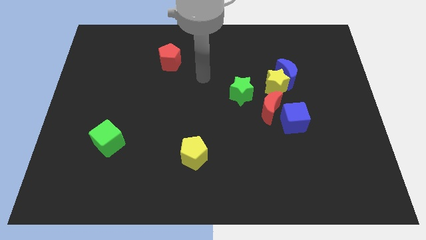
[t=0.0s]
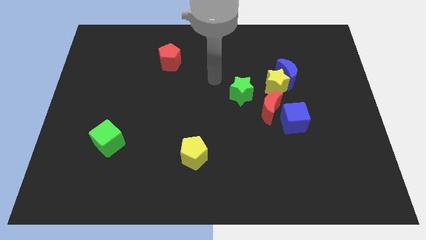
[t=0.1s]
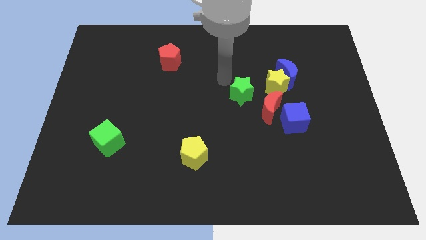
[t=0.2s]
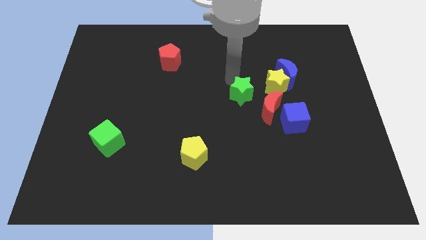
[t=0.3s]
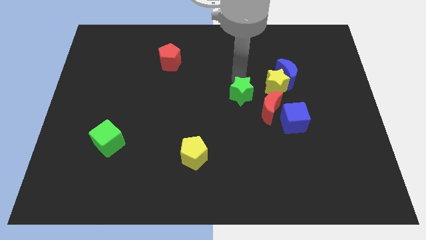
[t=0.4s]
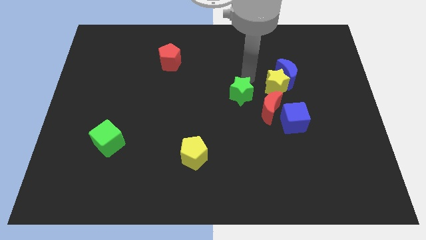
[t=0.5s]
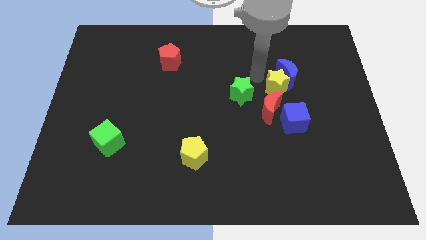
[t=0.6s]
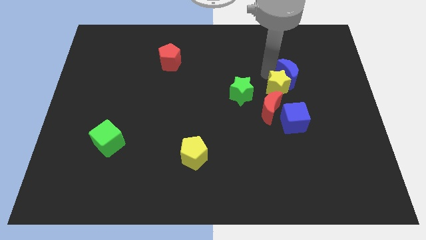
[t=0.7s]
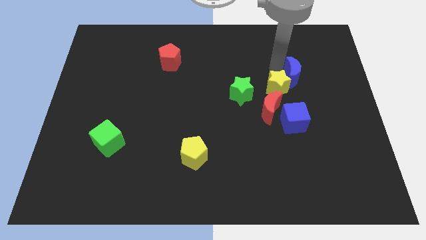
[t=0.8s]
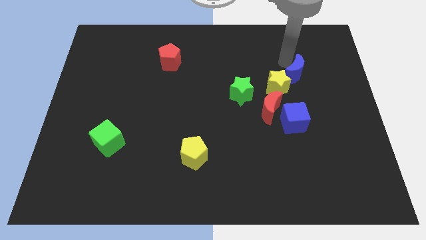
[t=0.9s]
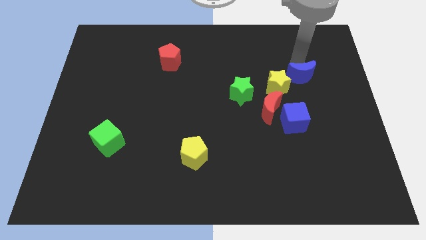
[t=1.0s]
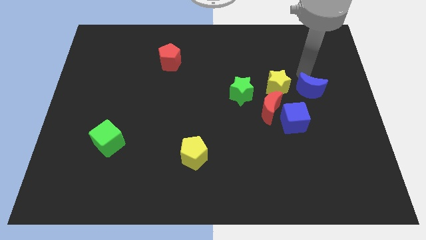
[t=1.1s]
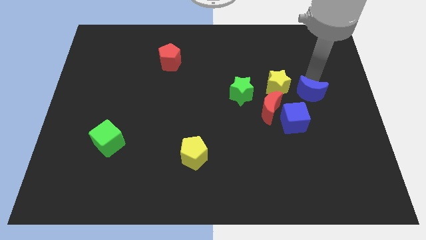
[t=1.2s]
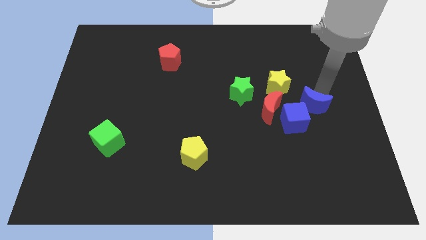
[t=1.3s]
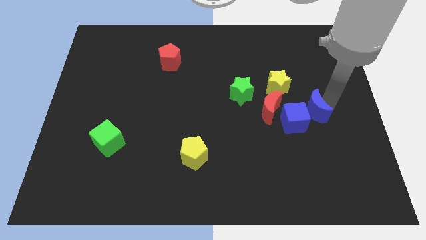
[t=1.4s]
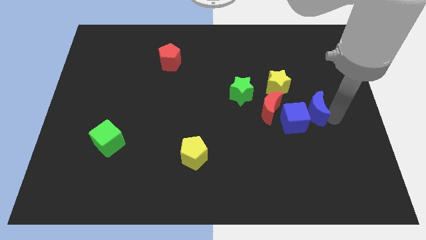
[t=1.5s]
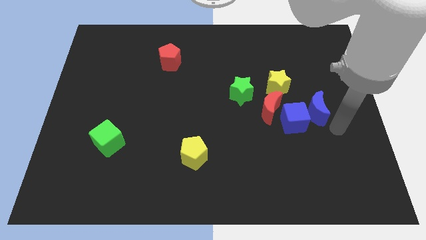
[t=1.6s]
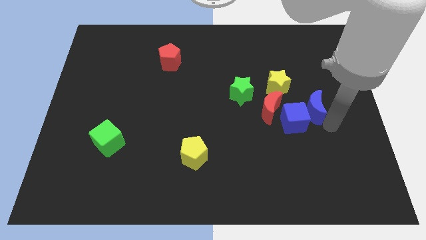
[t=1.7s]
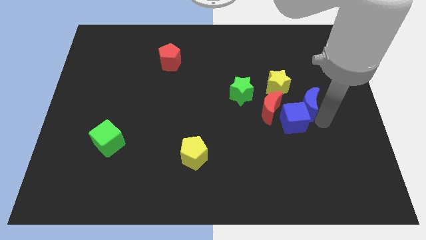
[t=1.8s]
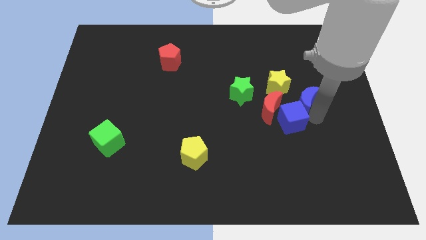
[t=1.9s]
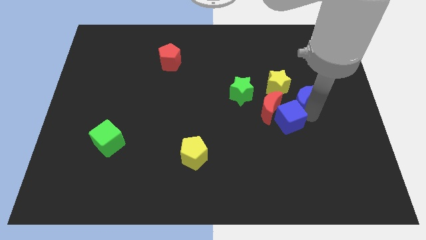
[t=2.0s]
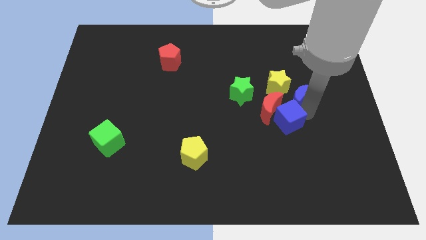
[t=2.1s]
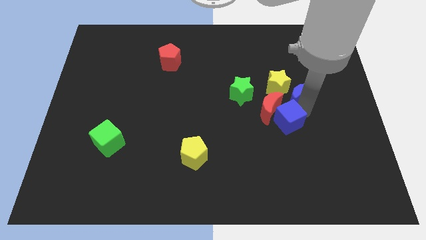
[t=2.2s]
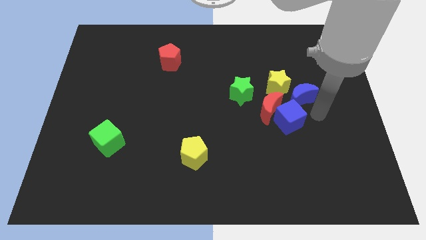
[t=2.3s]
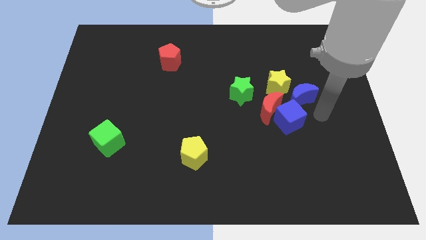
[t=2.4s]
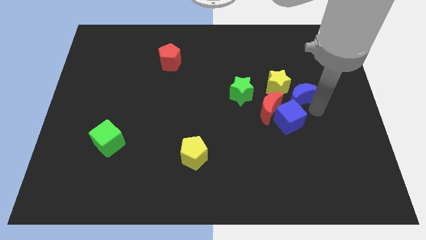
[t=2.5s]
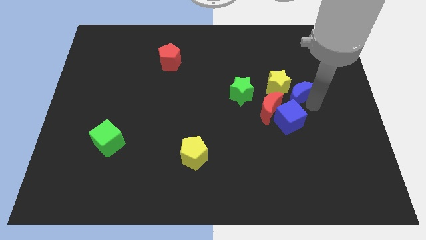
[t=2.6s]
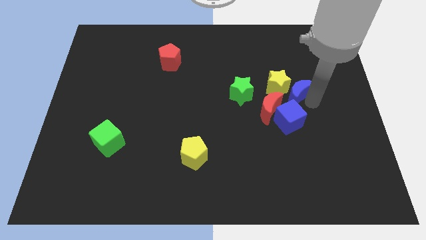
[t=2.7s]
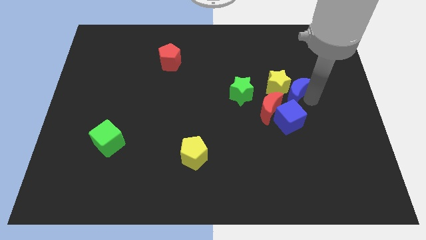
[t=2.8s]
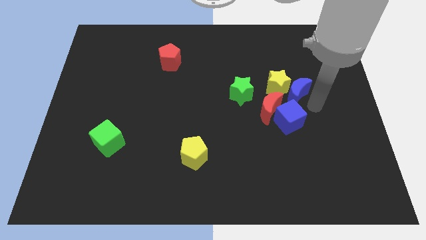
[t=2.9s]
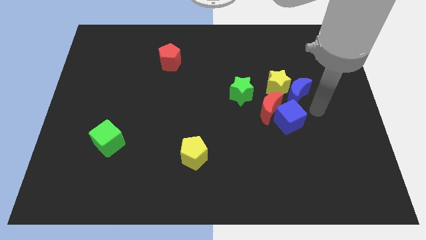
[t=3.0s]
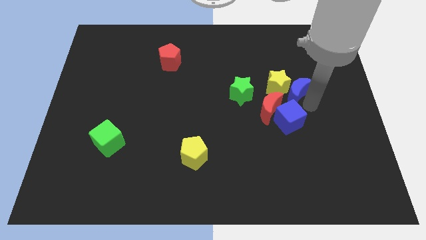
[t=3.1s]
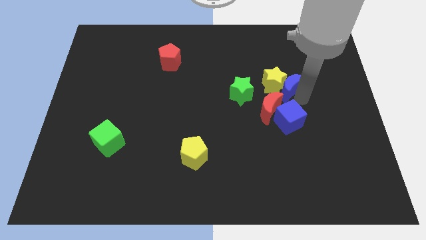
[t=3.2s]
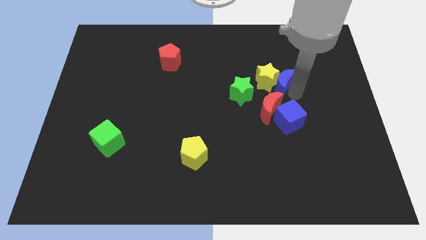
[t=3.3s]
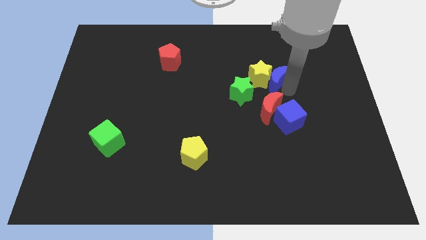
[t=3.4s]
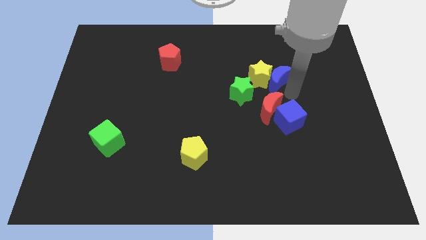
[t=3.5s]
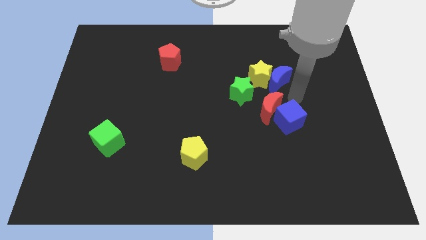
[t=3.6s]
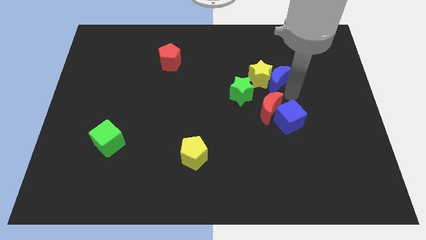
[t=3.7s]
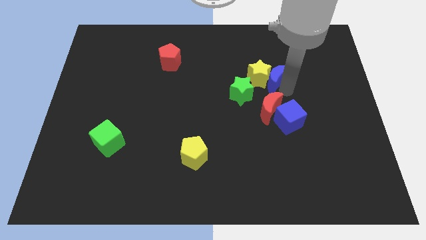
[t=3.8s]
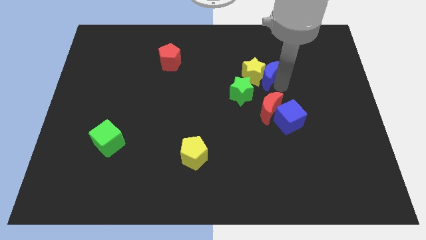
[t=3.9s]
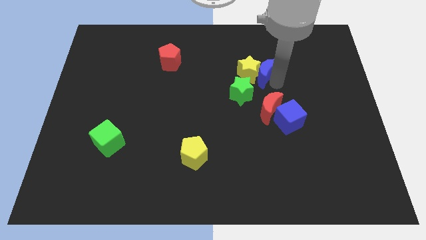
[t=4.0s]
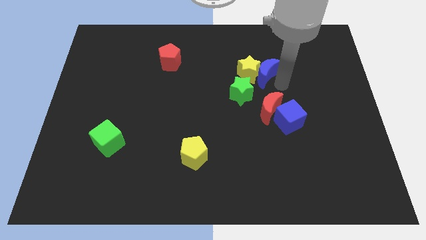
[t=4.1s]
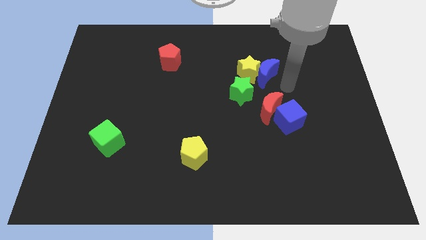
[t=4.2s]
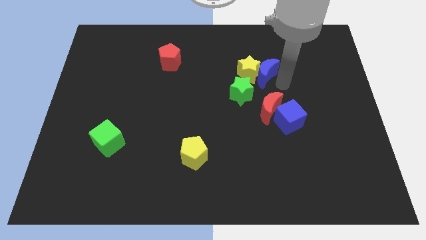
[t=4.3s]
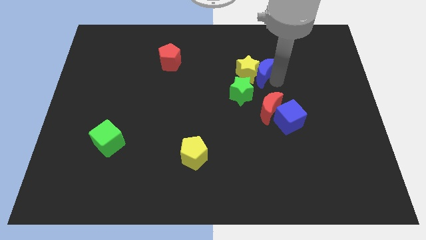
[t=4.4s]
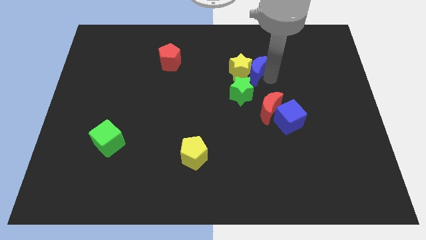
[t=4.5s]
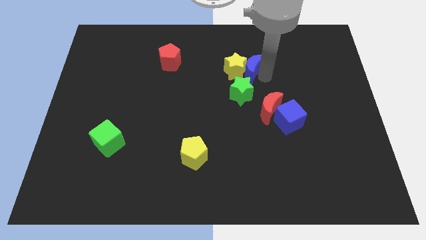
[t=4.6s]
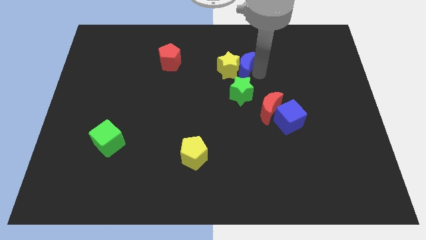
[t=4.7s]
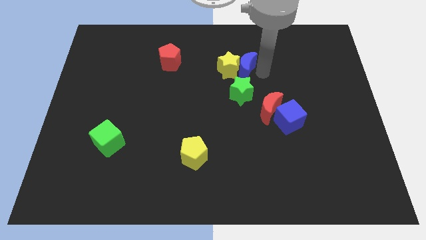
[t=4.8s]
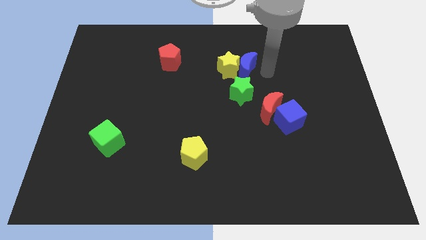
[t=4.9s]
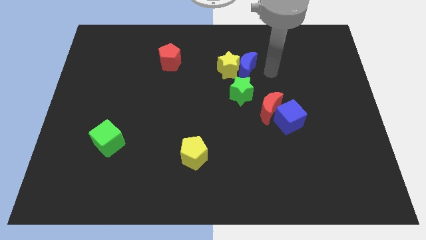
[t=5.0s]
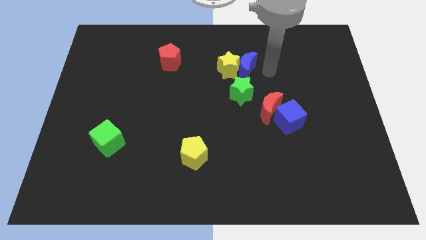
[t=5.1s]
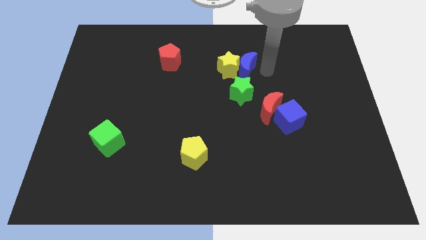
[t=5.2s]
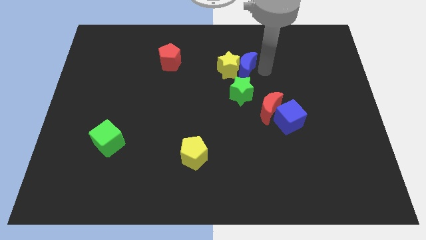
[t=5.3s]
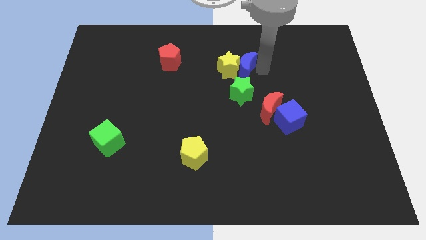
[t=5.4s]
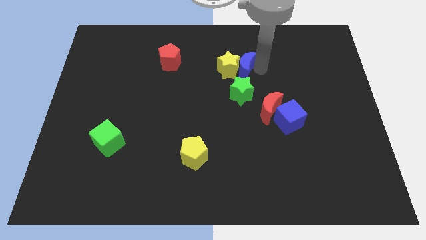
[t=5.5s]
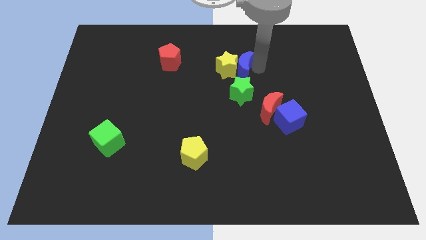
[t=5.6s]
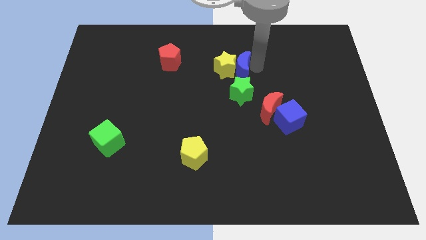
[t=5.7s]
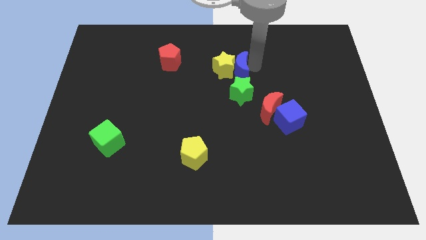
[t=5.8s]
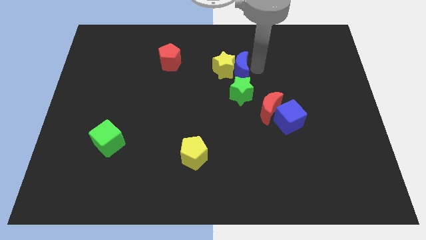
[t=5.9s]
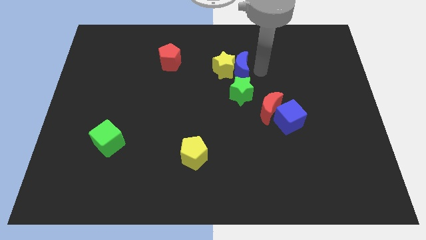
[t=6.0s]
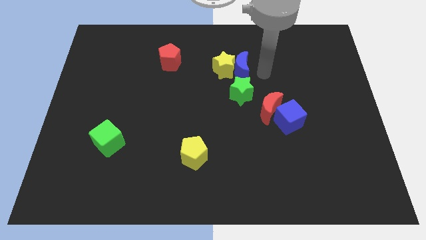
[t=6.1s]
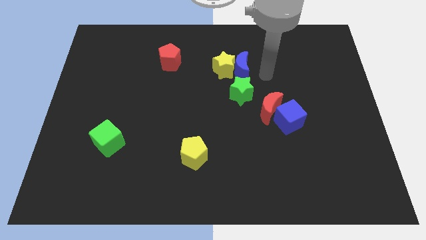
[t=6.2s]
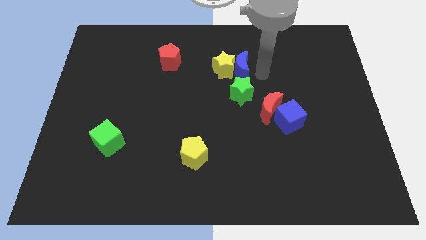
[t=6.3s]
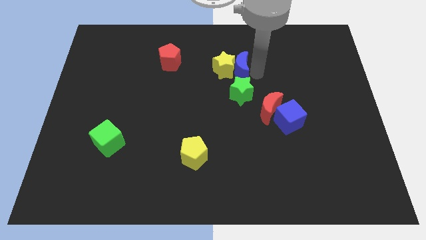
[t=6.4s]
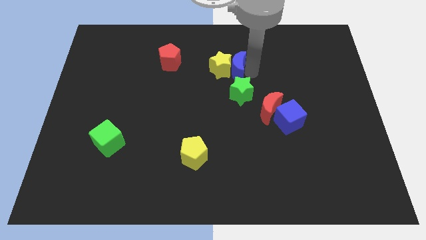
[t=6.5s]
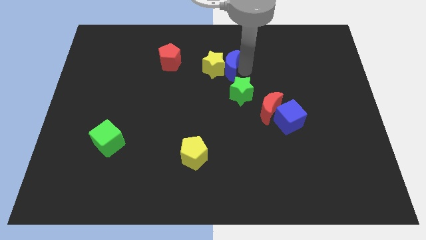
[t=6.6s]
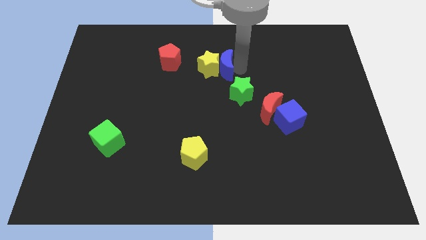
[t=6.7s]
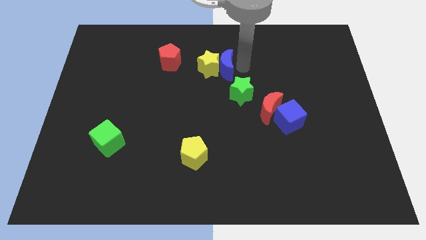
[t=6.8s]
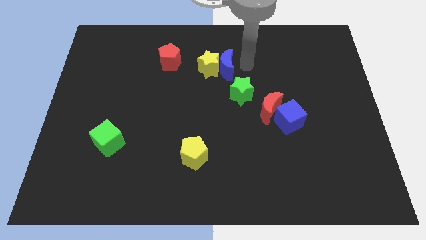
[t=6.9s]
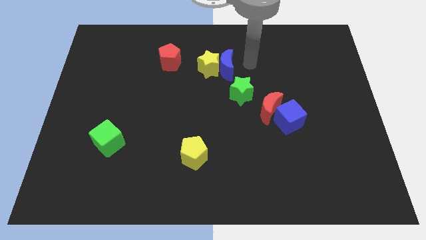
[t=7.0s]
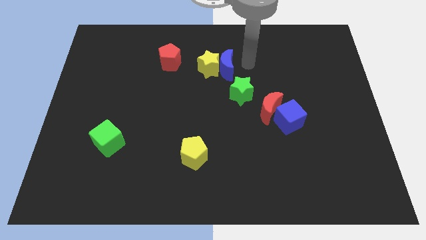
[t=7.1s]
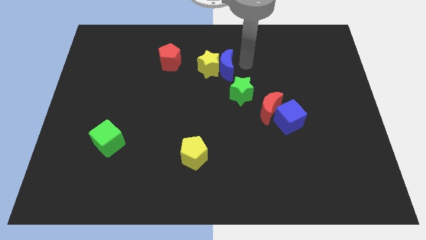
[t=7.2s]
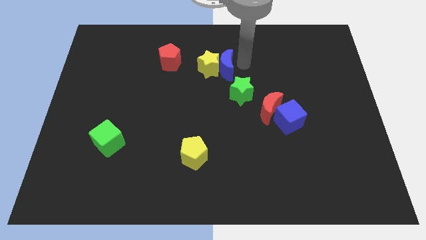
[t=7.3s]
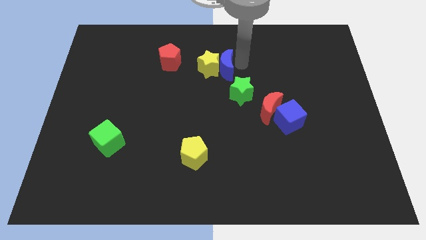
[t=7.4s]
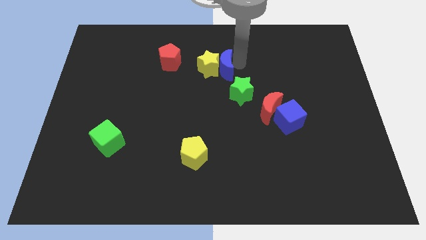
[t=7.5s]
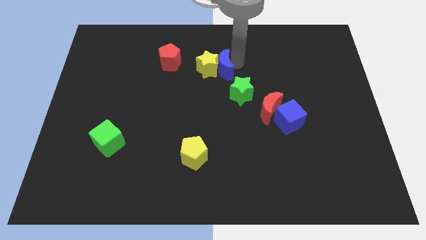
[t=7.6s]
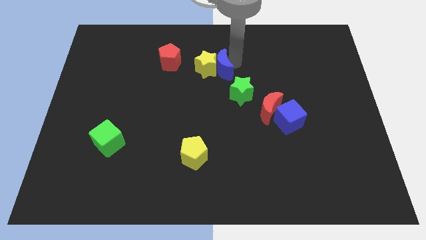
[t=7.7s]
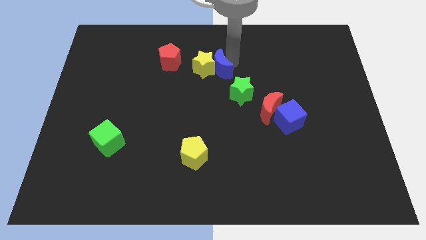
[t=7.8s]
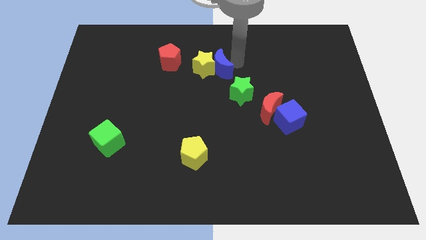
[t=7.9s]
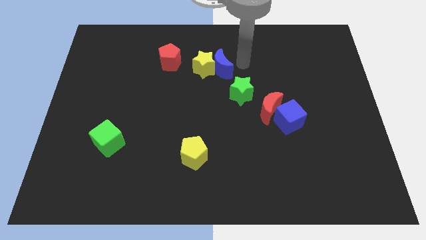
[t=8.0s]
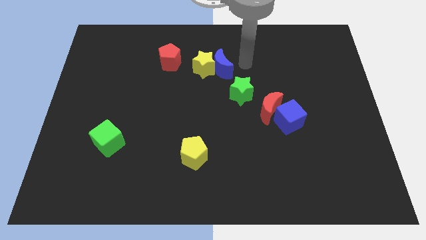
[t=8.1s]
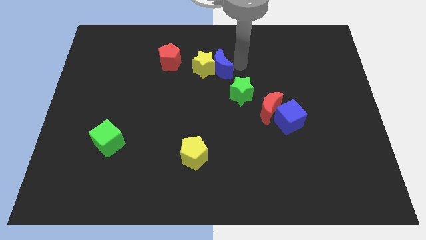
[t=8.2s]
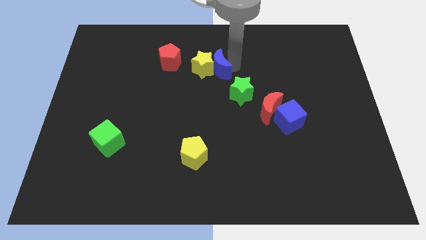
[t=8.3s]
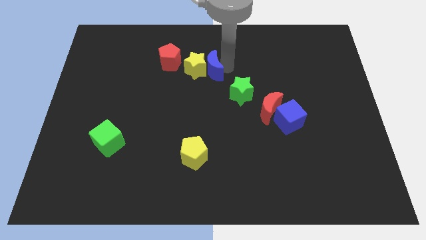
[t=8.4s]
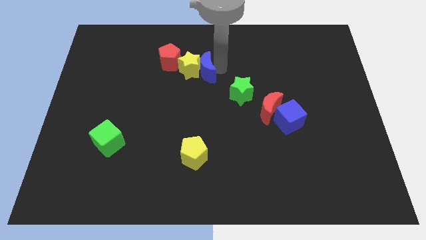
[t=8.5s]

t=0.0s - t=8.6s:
move the blue moon left
